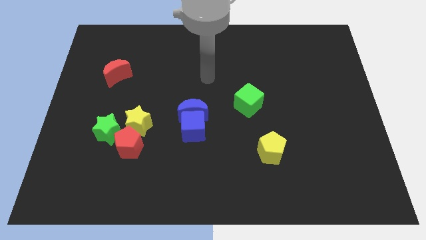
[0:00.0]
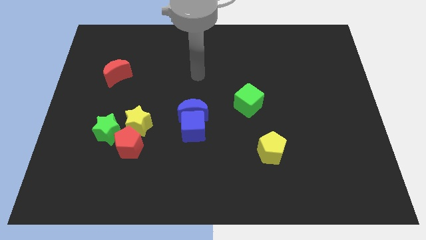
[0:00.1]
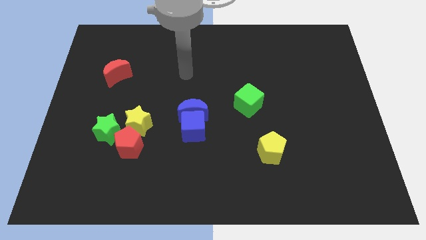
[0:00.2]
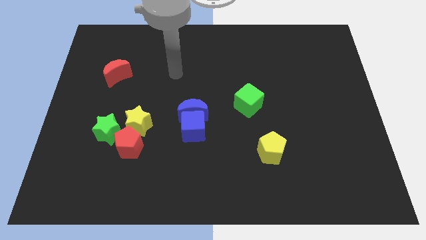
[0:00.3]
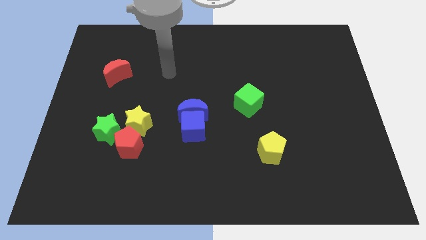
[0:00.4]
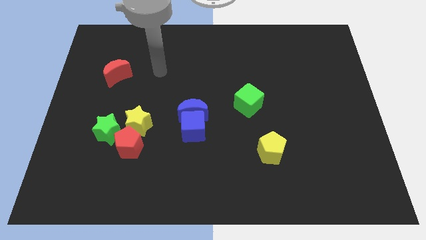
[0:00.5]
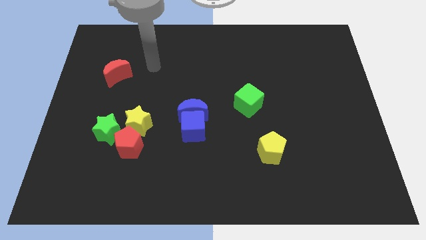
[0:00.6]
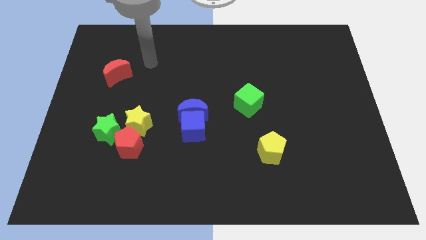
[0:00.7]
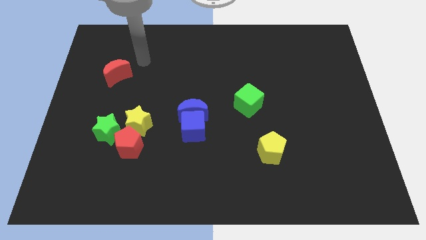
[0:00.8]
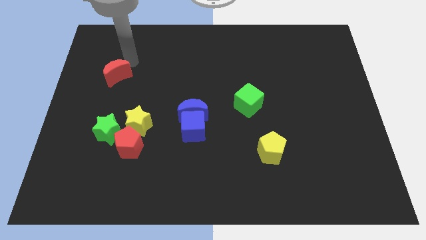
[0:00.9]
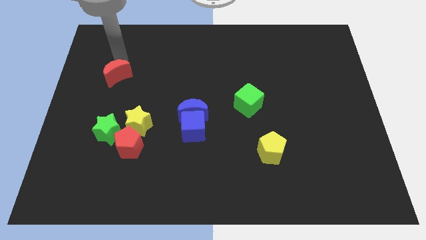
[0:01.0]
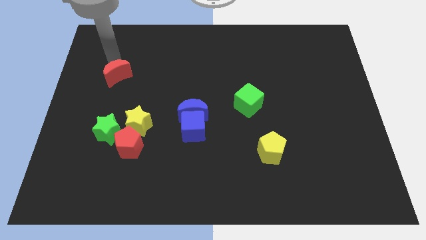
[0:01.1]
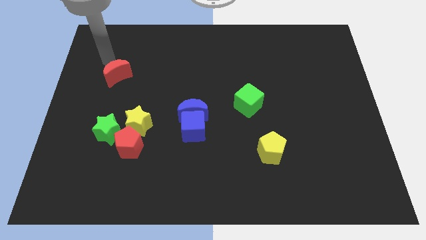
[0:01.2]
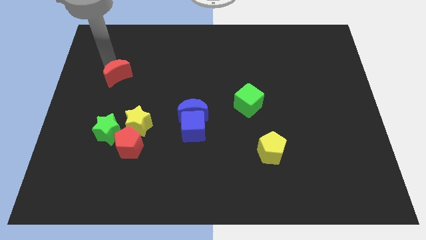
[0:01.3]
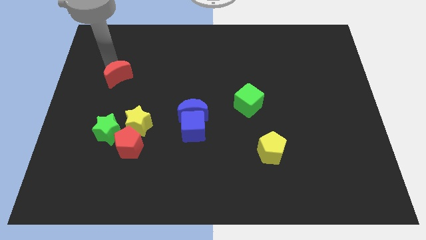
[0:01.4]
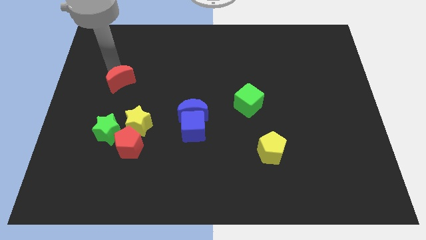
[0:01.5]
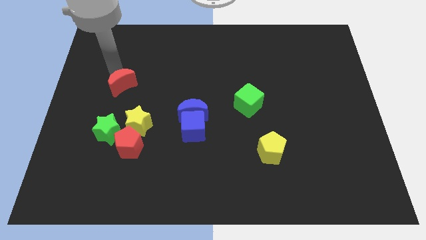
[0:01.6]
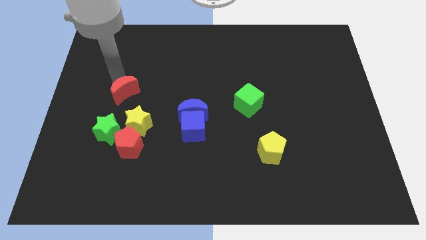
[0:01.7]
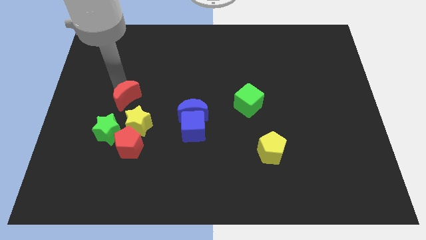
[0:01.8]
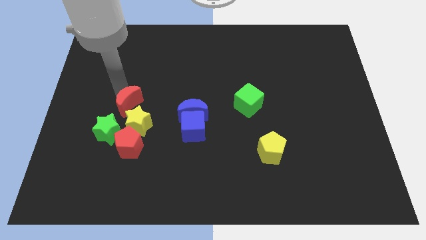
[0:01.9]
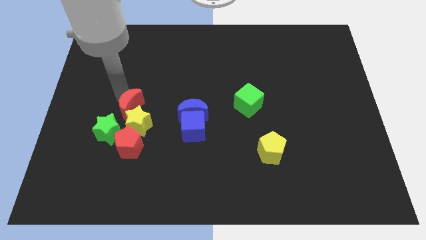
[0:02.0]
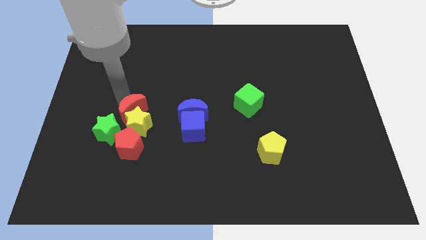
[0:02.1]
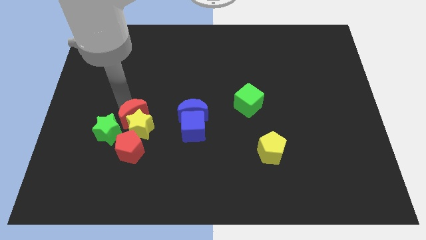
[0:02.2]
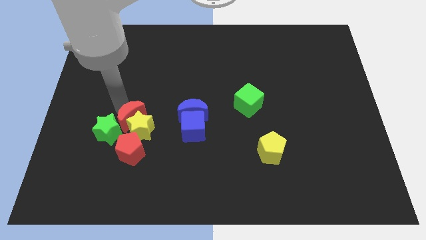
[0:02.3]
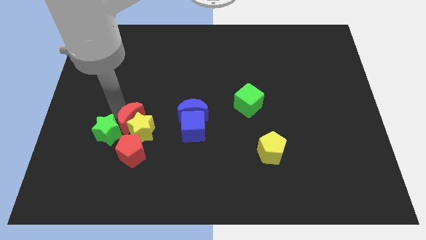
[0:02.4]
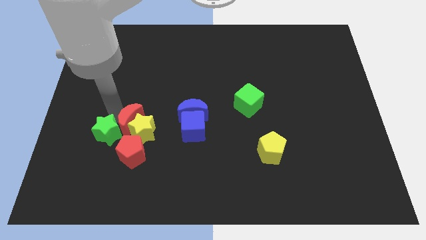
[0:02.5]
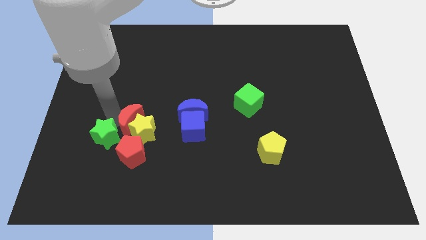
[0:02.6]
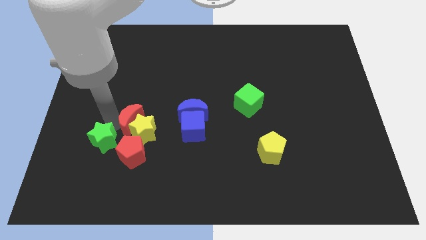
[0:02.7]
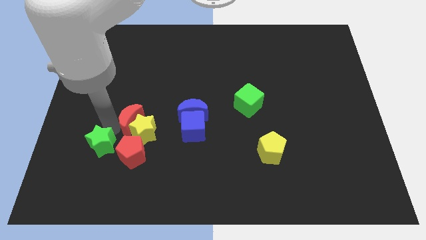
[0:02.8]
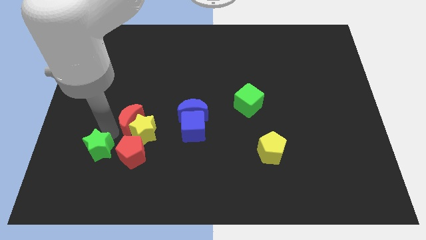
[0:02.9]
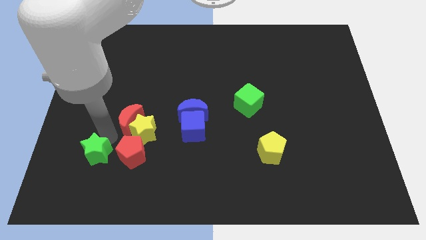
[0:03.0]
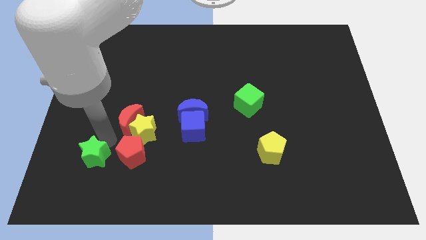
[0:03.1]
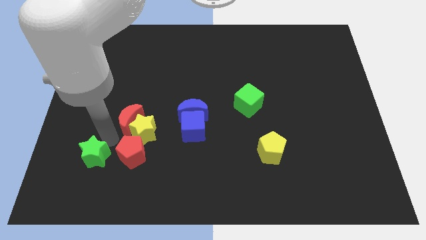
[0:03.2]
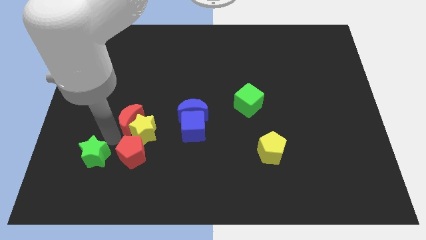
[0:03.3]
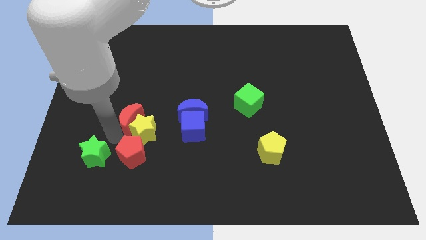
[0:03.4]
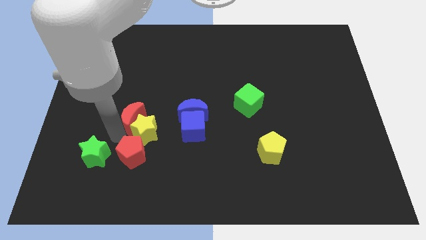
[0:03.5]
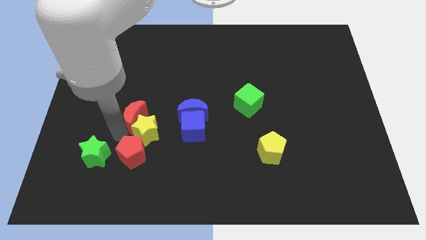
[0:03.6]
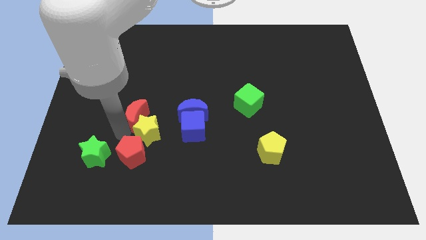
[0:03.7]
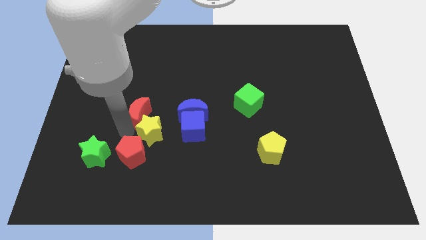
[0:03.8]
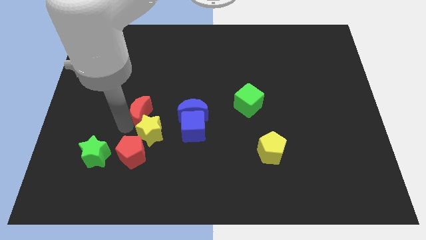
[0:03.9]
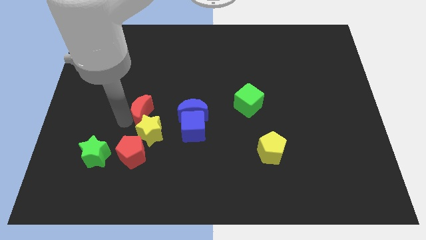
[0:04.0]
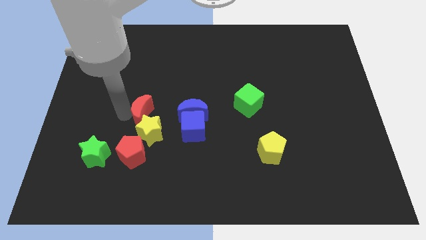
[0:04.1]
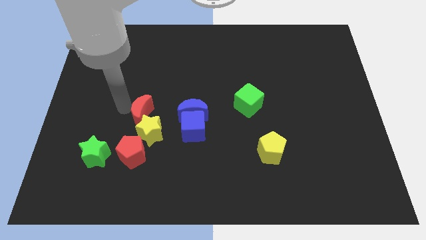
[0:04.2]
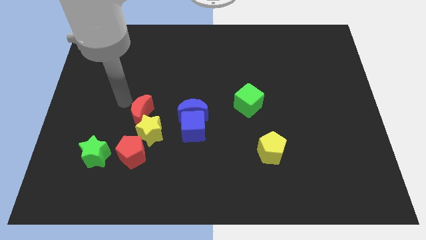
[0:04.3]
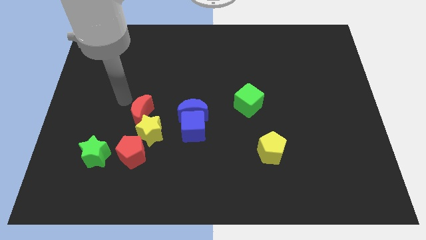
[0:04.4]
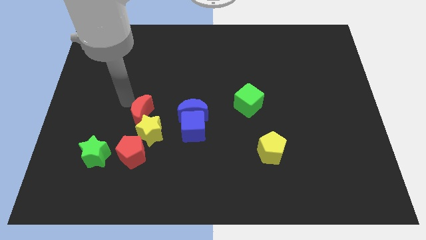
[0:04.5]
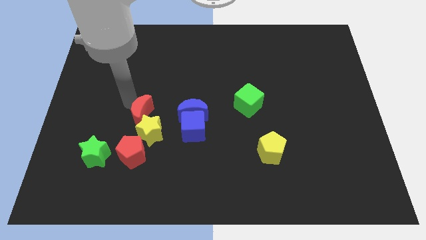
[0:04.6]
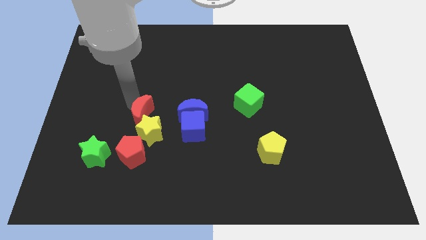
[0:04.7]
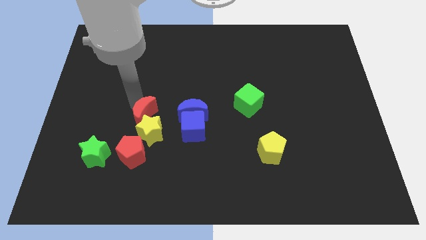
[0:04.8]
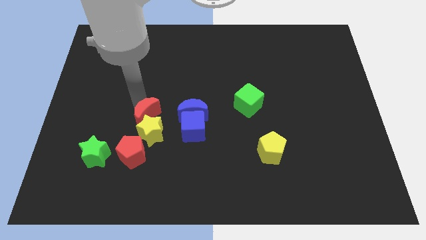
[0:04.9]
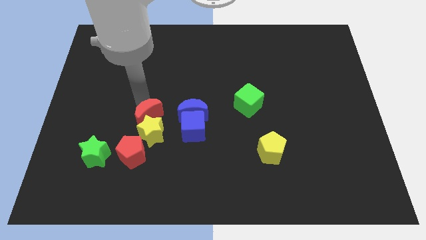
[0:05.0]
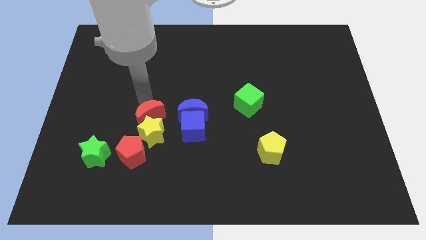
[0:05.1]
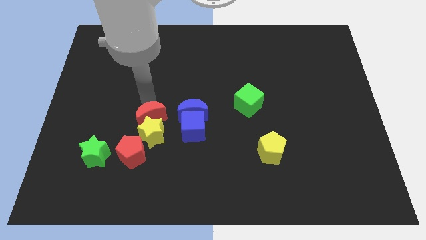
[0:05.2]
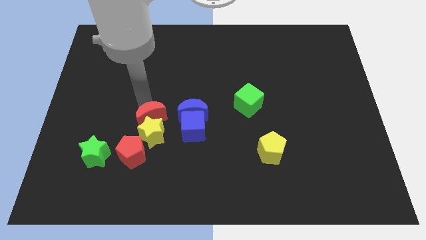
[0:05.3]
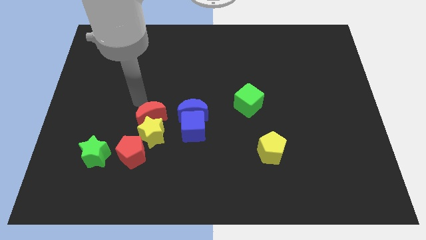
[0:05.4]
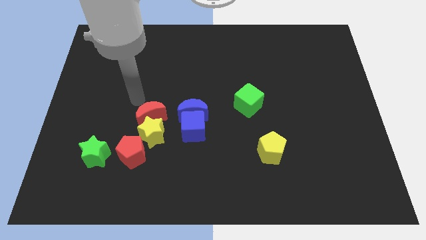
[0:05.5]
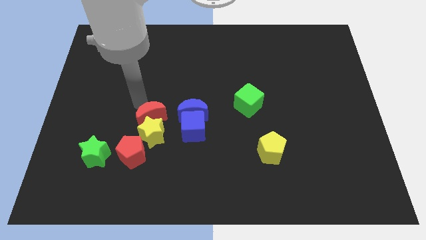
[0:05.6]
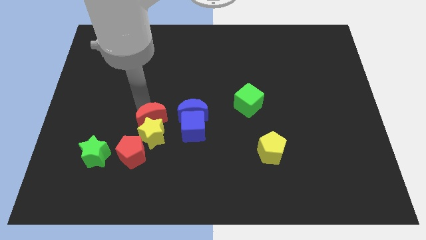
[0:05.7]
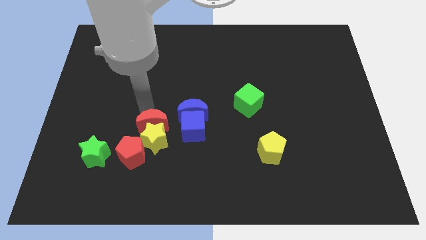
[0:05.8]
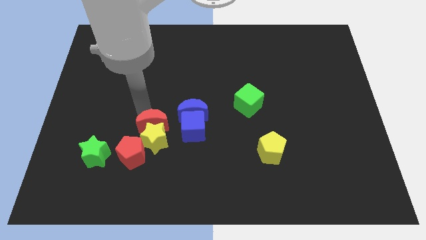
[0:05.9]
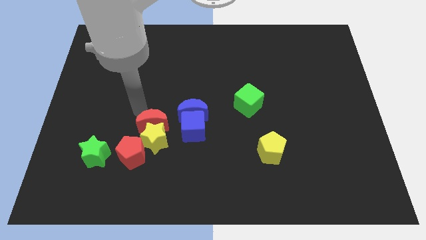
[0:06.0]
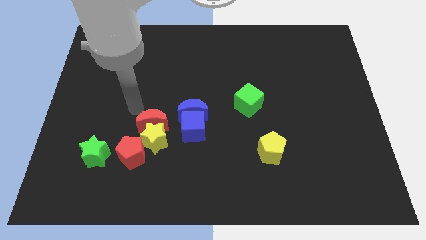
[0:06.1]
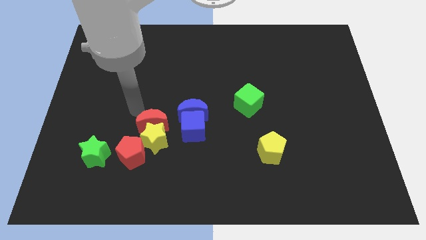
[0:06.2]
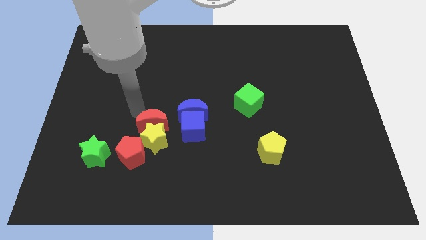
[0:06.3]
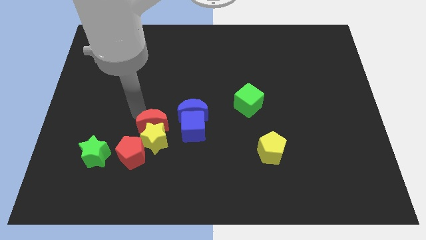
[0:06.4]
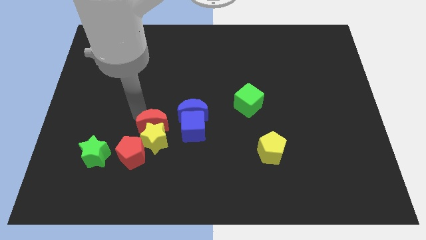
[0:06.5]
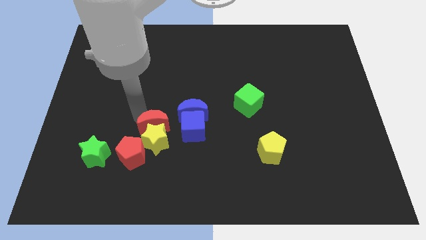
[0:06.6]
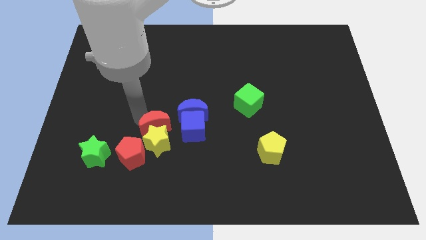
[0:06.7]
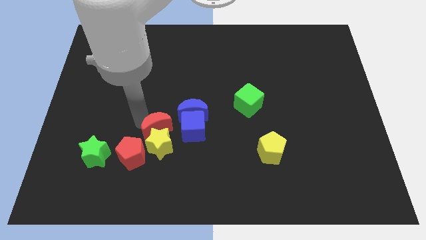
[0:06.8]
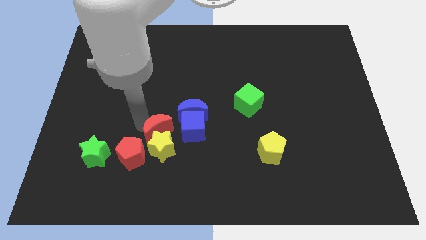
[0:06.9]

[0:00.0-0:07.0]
move the red moon diagonally downwards and to the right

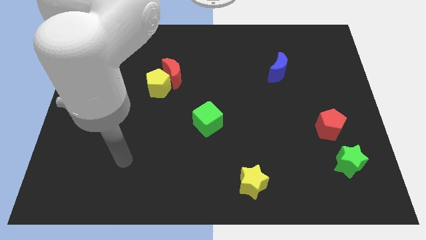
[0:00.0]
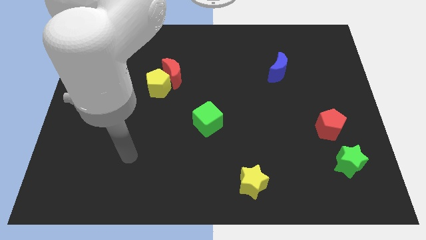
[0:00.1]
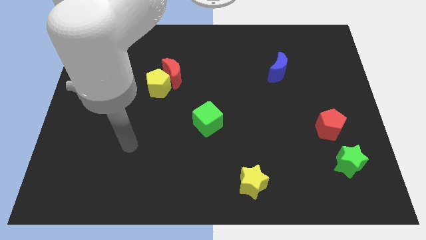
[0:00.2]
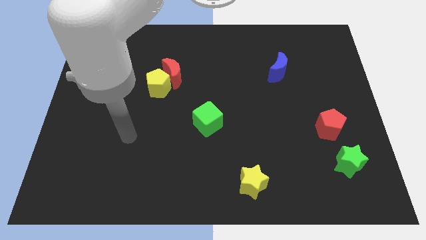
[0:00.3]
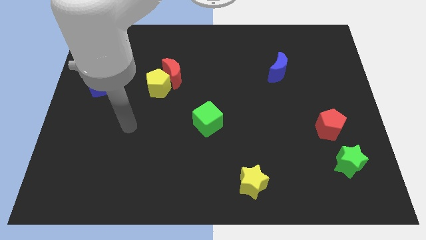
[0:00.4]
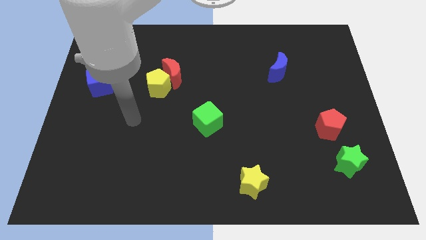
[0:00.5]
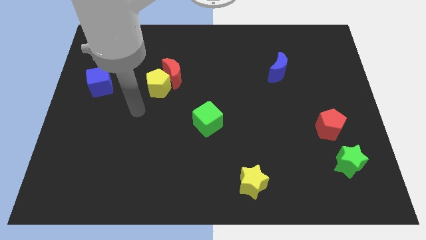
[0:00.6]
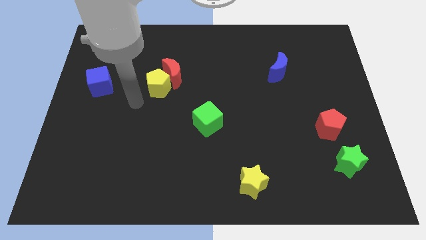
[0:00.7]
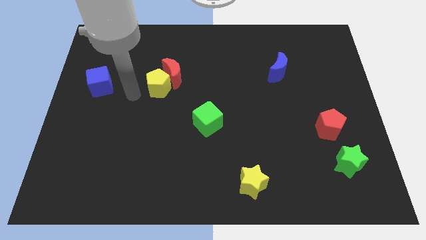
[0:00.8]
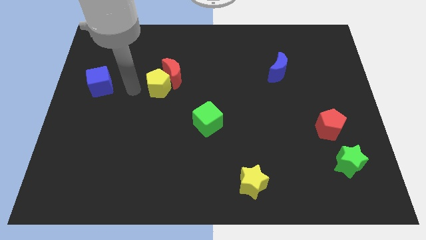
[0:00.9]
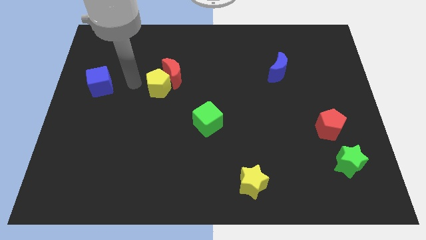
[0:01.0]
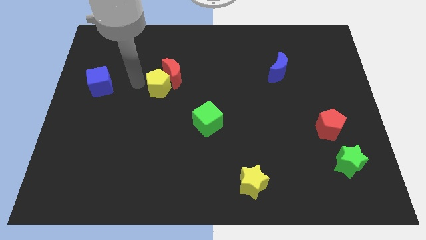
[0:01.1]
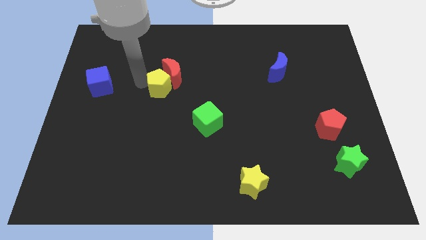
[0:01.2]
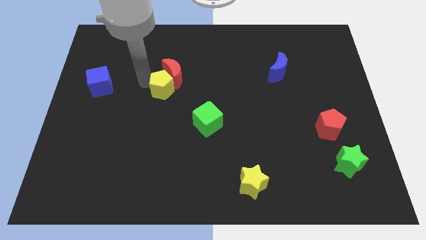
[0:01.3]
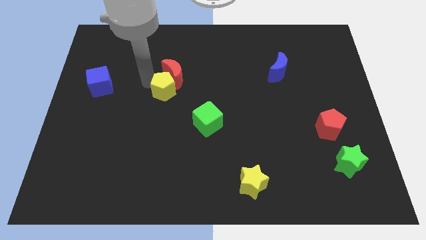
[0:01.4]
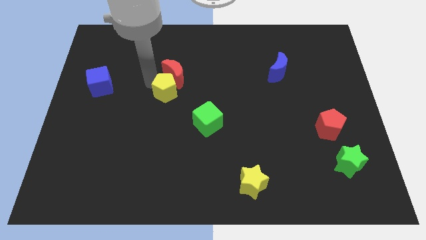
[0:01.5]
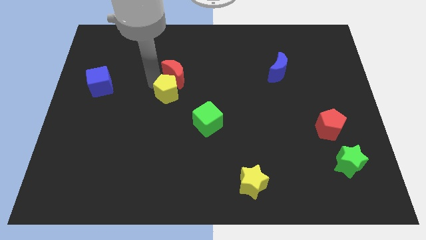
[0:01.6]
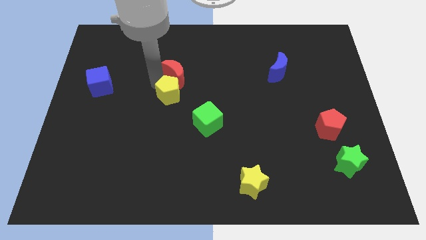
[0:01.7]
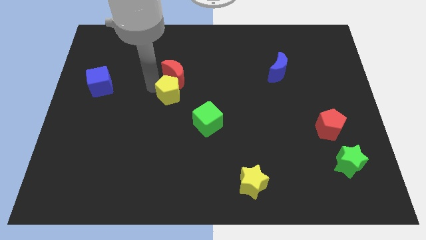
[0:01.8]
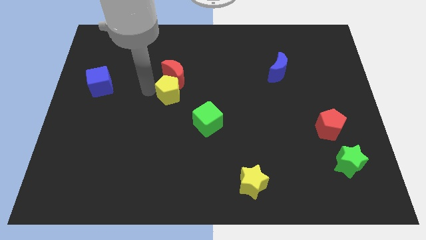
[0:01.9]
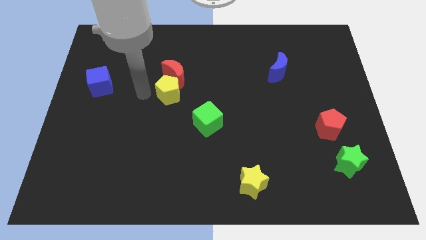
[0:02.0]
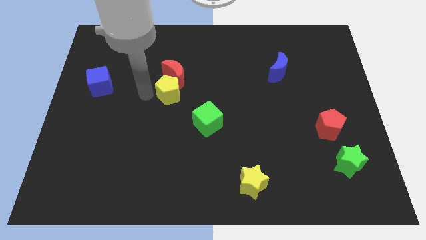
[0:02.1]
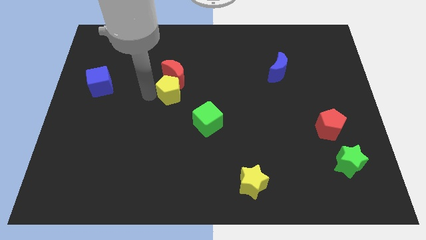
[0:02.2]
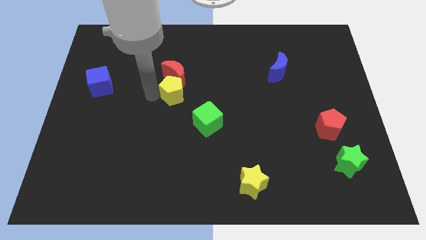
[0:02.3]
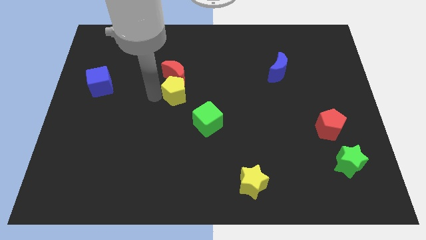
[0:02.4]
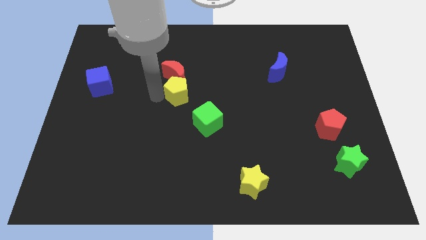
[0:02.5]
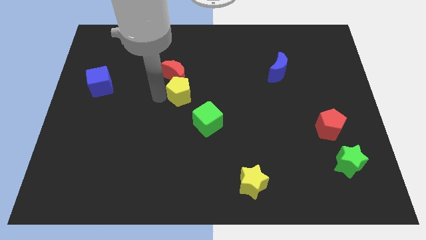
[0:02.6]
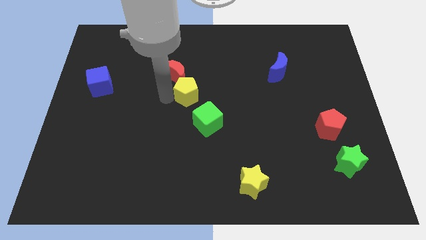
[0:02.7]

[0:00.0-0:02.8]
slightly push the yellow pentagon to the right
